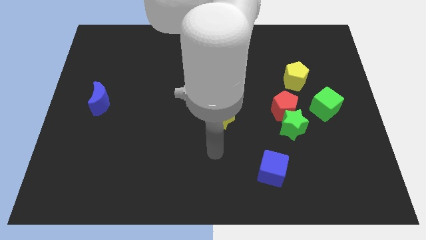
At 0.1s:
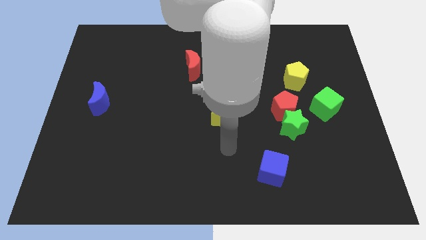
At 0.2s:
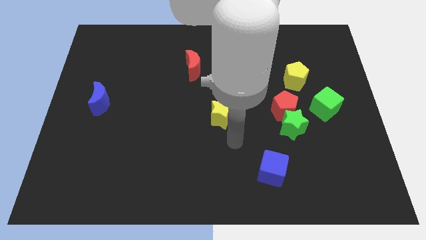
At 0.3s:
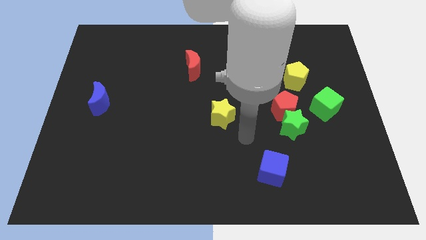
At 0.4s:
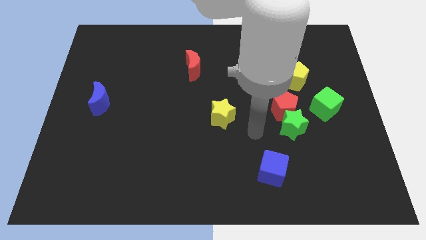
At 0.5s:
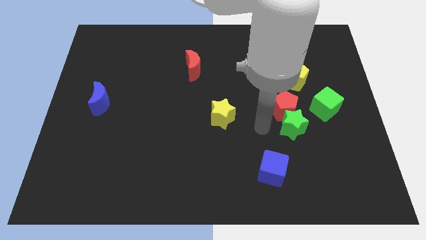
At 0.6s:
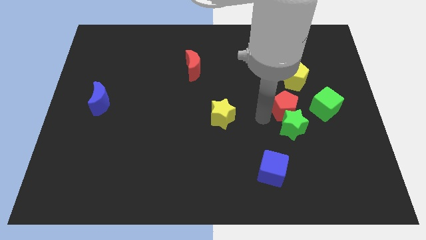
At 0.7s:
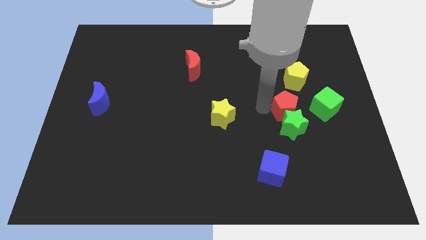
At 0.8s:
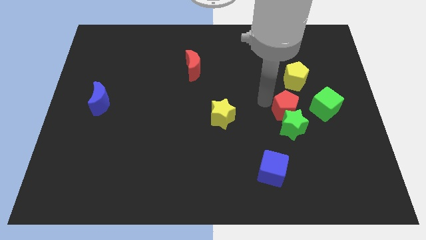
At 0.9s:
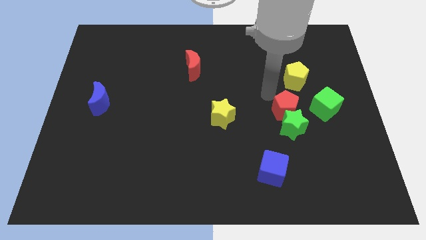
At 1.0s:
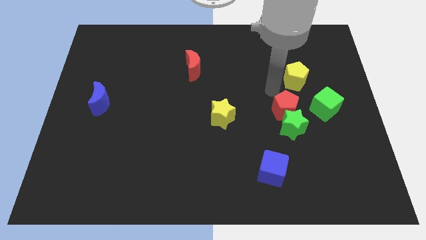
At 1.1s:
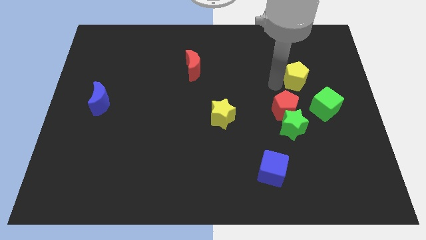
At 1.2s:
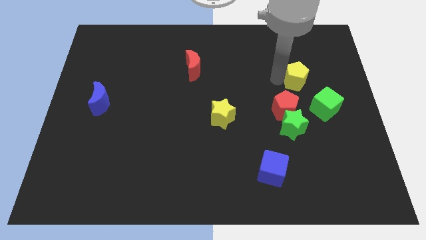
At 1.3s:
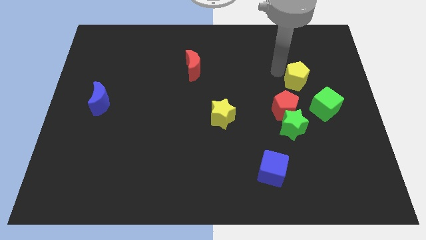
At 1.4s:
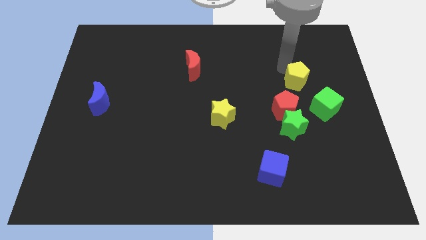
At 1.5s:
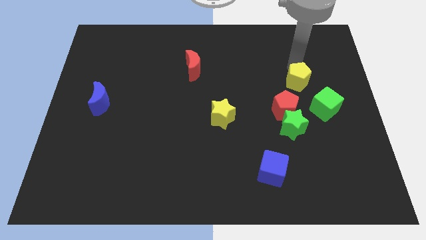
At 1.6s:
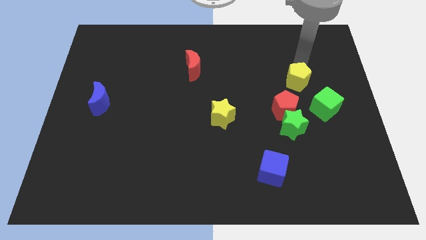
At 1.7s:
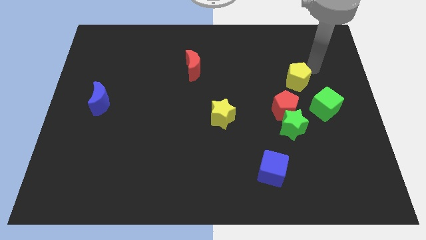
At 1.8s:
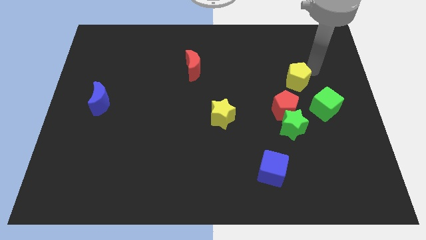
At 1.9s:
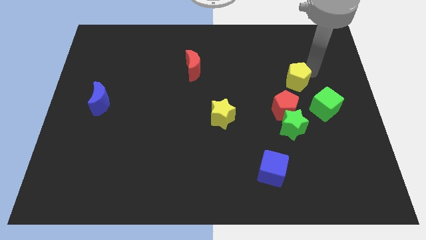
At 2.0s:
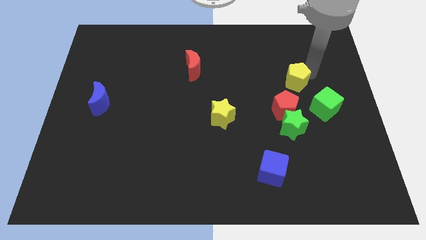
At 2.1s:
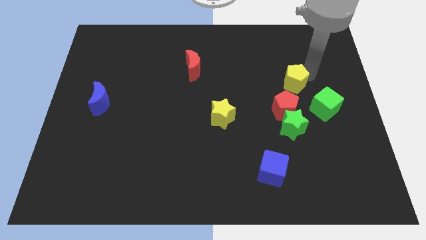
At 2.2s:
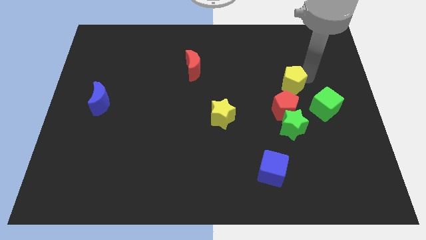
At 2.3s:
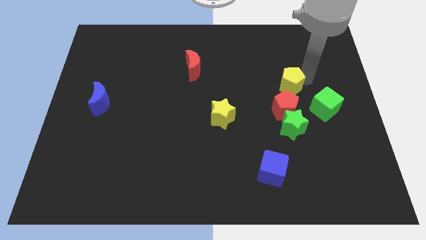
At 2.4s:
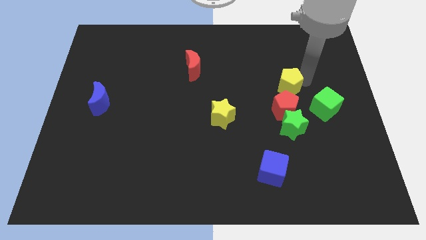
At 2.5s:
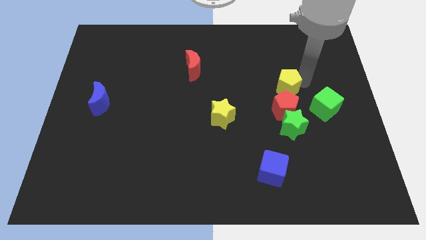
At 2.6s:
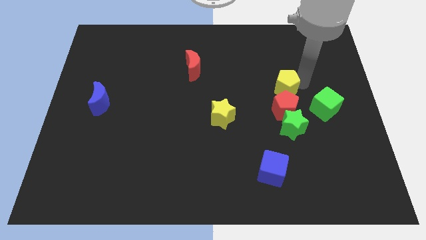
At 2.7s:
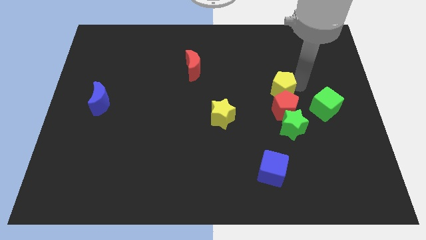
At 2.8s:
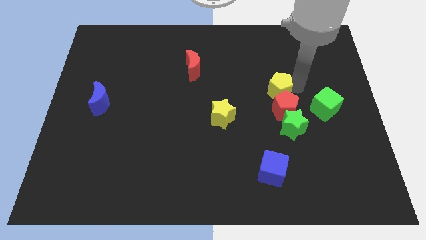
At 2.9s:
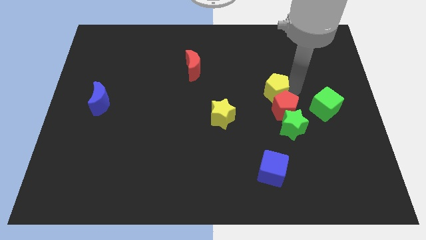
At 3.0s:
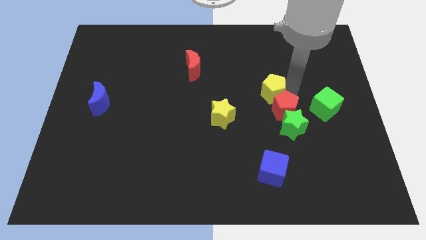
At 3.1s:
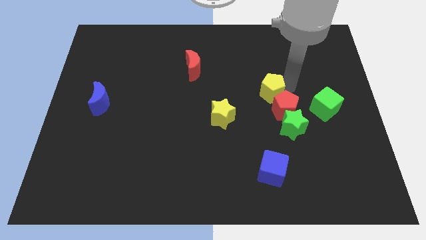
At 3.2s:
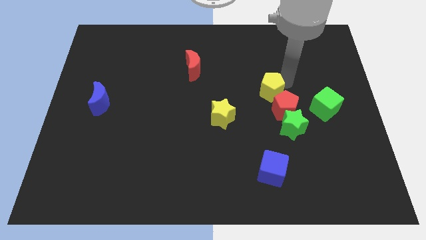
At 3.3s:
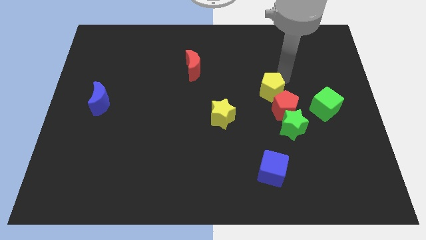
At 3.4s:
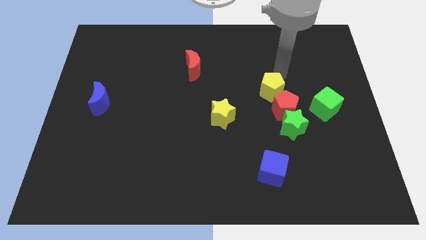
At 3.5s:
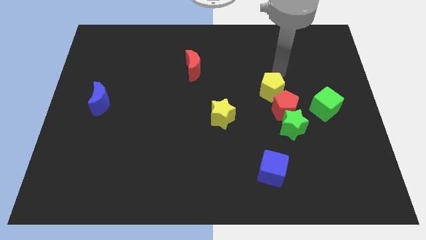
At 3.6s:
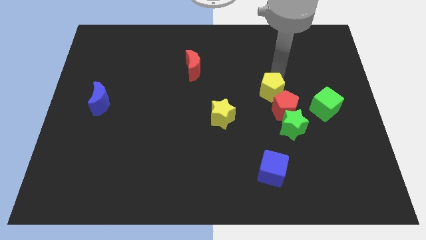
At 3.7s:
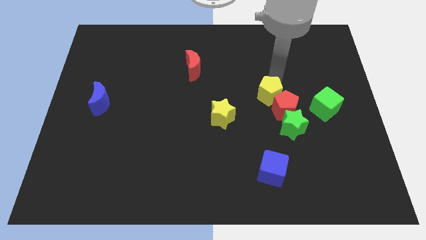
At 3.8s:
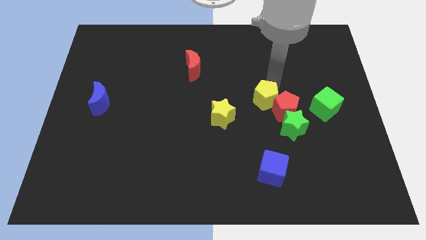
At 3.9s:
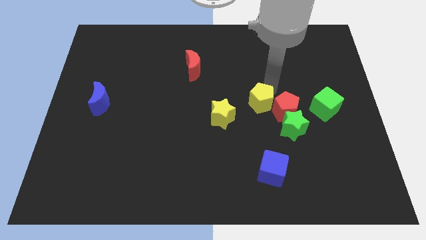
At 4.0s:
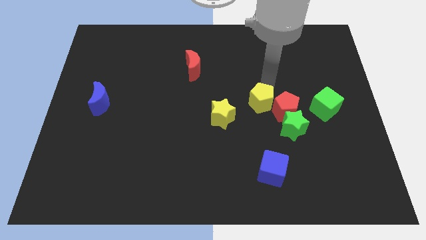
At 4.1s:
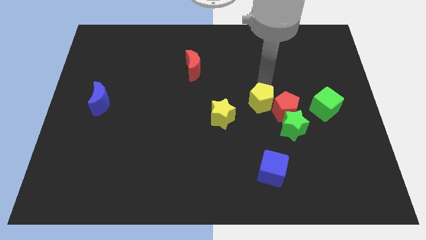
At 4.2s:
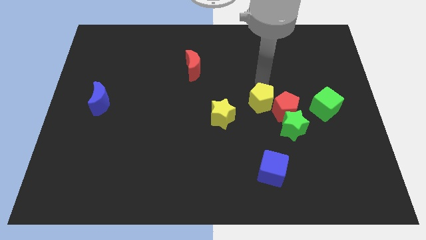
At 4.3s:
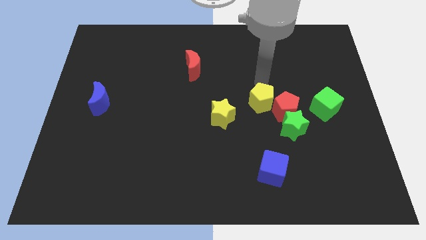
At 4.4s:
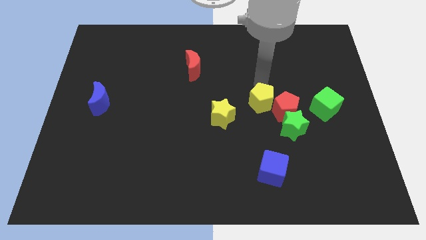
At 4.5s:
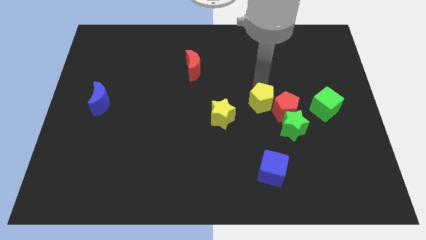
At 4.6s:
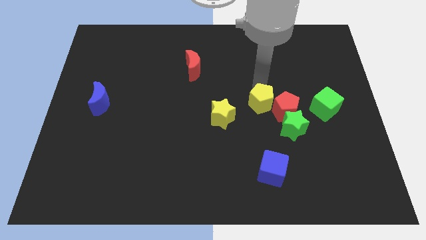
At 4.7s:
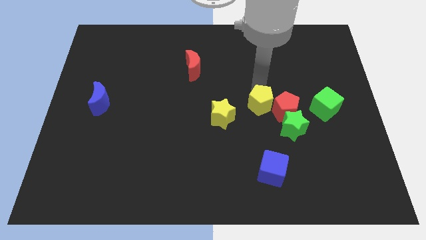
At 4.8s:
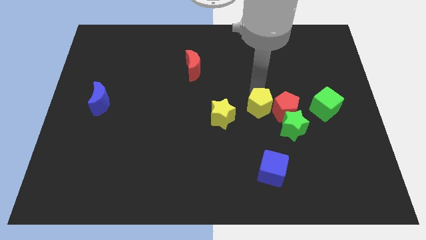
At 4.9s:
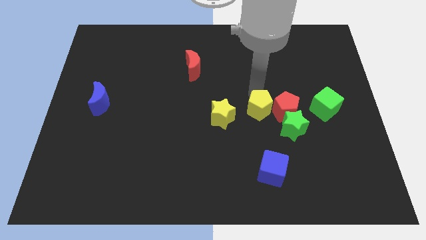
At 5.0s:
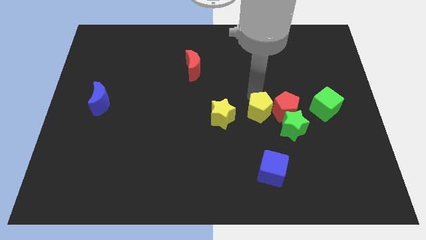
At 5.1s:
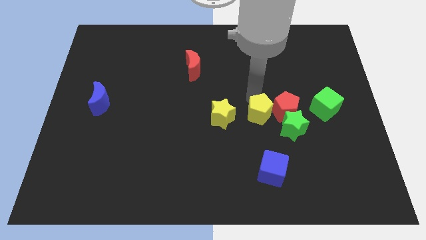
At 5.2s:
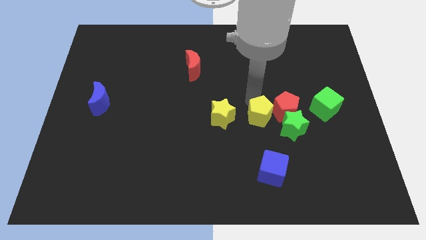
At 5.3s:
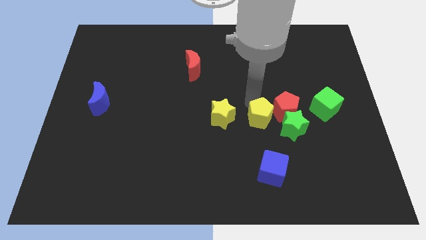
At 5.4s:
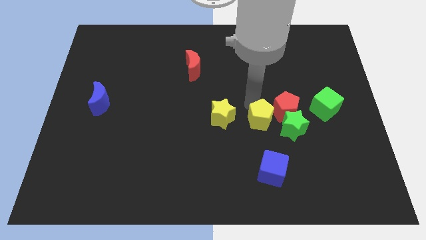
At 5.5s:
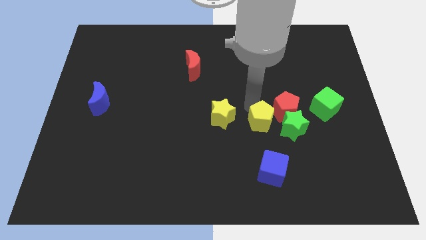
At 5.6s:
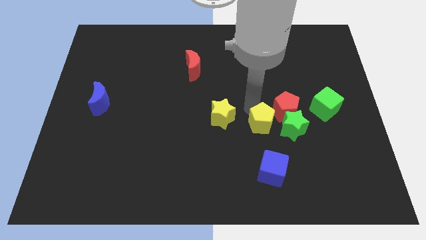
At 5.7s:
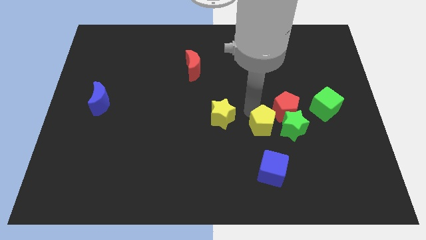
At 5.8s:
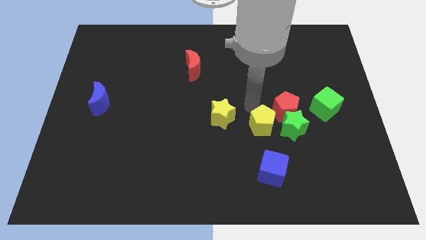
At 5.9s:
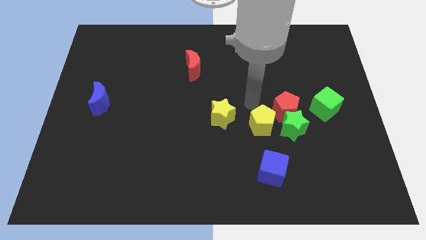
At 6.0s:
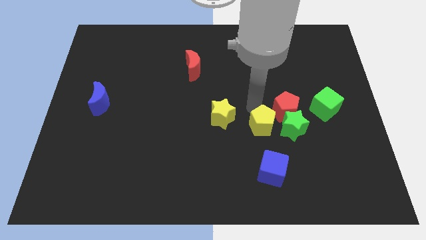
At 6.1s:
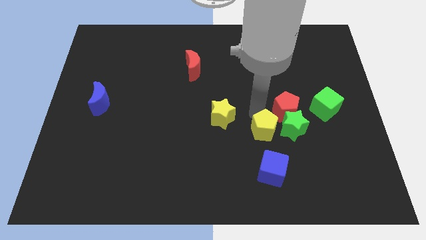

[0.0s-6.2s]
slide the yellow pentagon to the bottom left of the green star

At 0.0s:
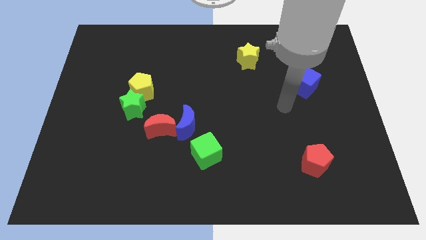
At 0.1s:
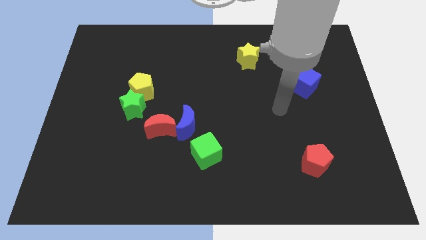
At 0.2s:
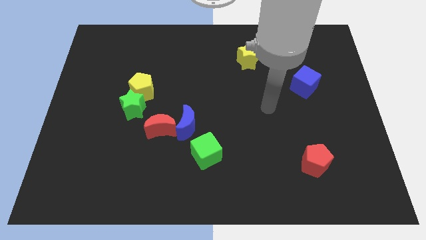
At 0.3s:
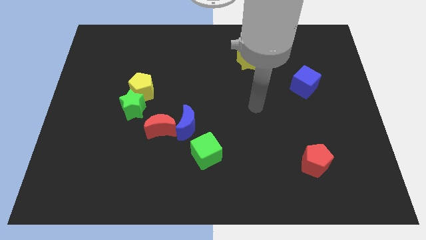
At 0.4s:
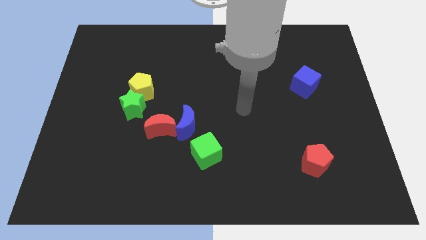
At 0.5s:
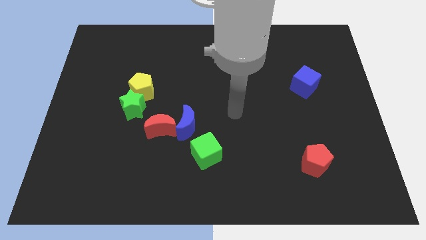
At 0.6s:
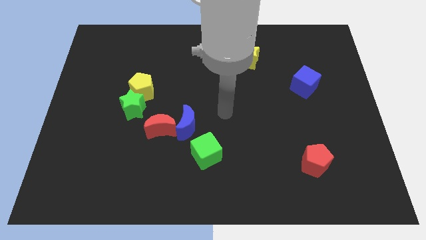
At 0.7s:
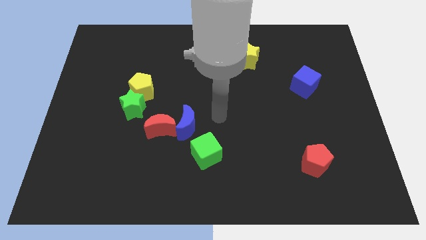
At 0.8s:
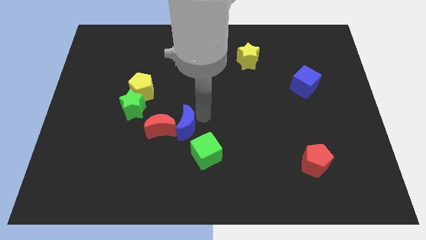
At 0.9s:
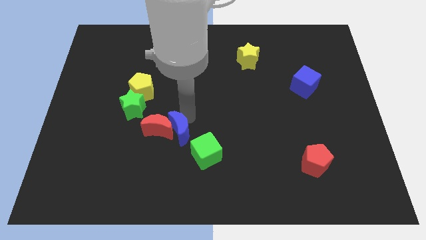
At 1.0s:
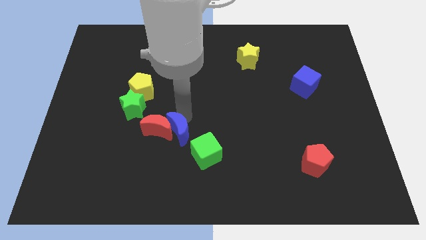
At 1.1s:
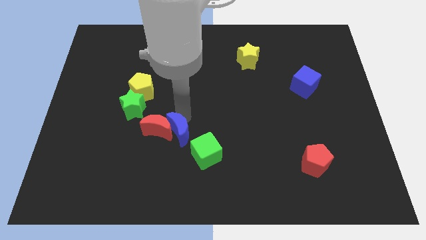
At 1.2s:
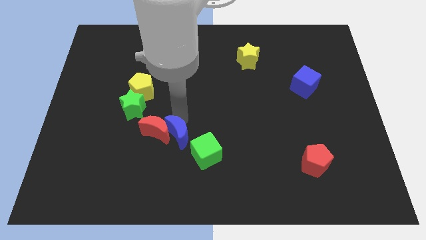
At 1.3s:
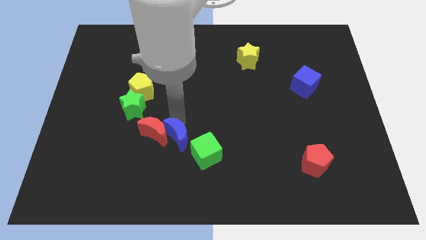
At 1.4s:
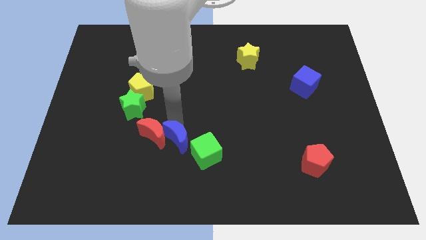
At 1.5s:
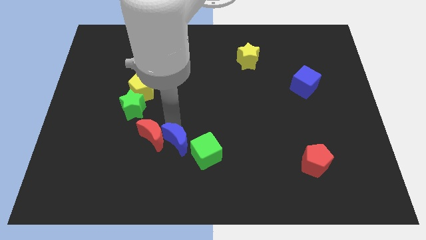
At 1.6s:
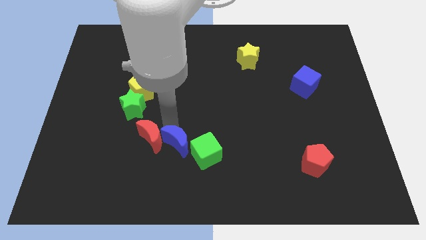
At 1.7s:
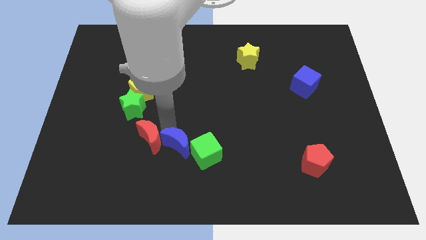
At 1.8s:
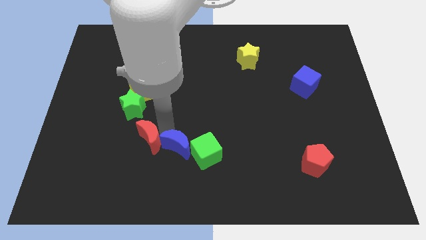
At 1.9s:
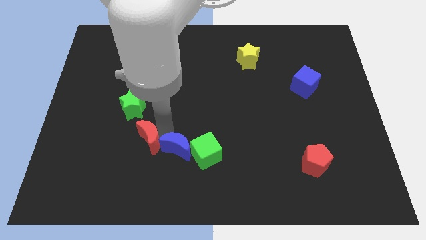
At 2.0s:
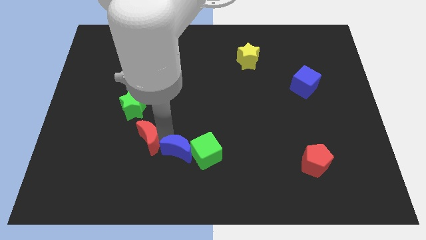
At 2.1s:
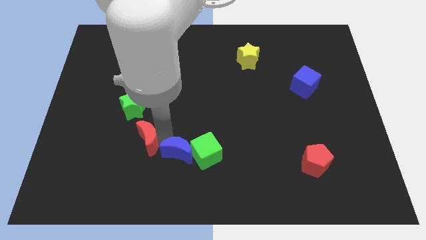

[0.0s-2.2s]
move the red moon to the bottom of the green star

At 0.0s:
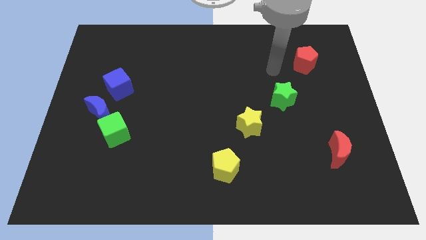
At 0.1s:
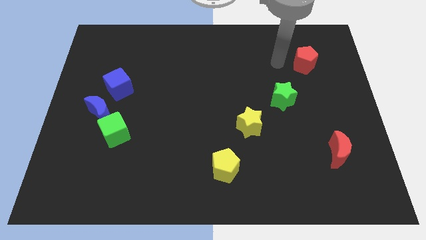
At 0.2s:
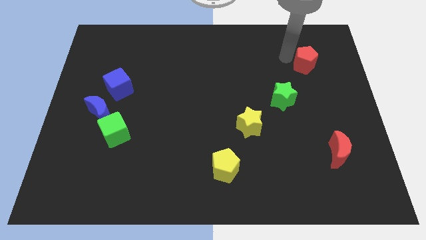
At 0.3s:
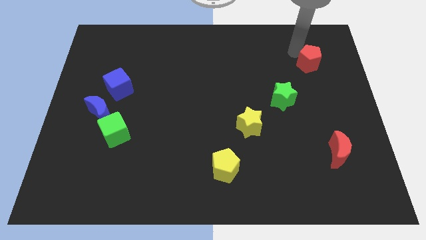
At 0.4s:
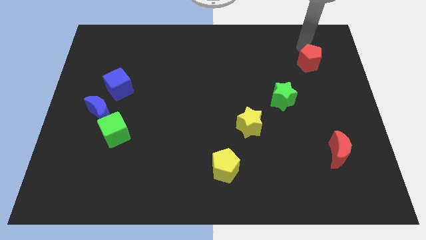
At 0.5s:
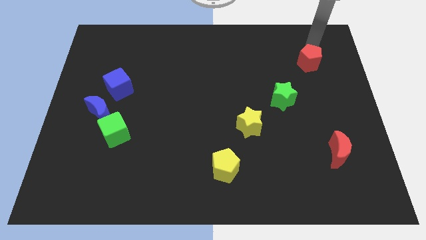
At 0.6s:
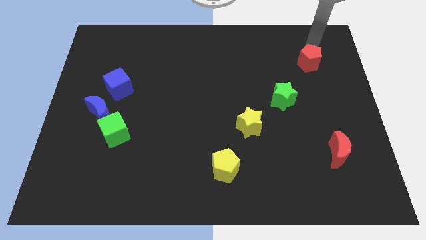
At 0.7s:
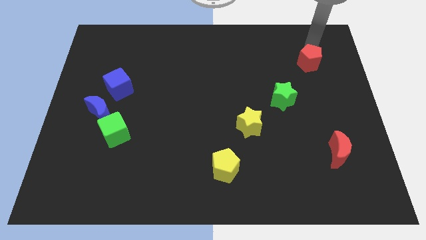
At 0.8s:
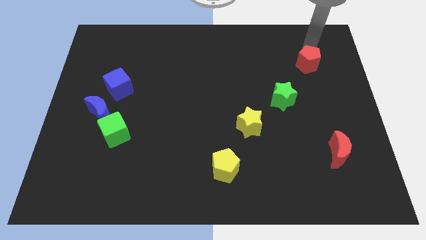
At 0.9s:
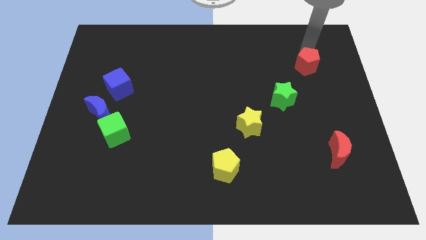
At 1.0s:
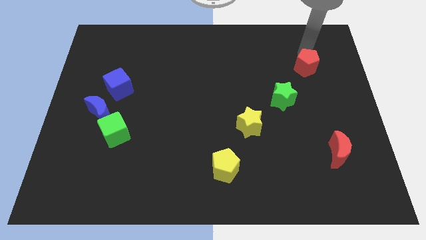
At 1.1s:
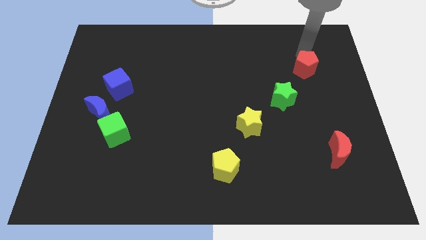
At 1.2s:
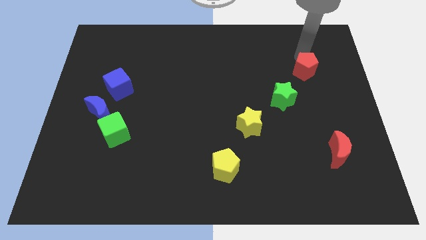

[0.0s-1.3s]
put the red pentagon to the top right side of the green star
